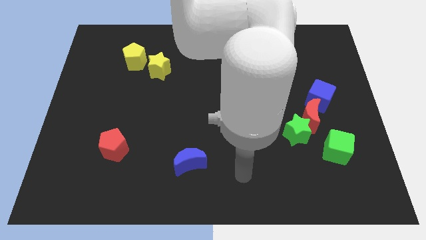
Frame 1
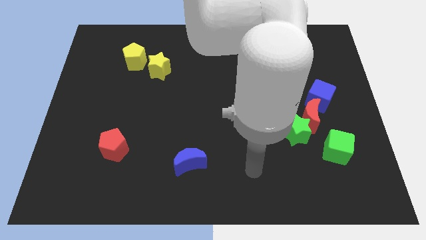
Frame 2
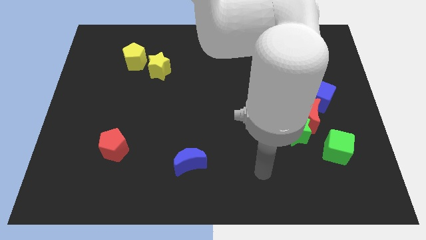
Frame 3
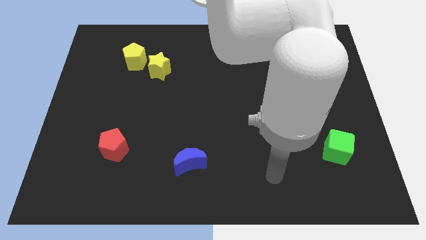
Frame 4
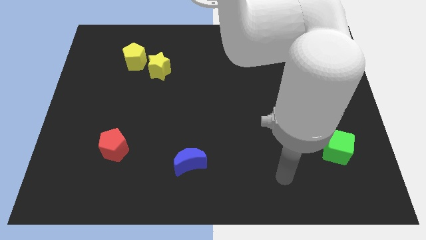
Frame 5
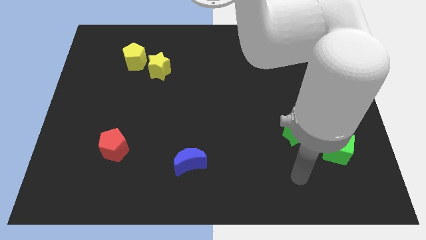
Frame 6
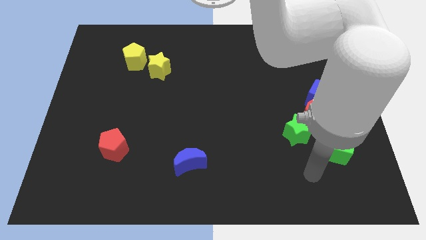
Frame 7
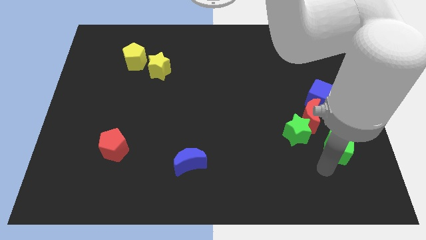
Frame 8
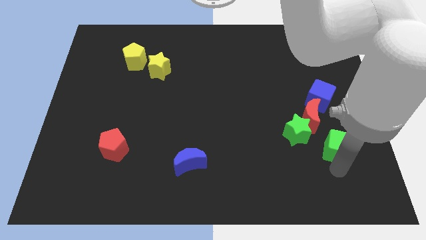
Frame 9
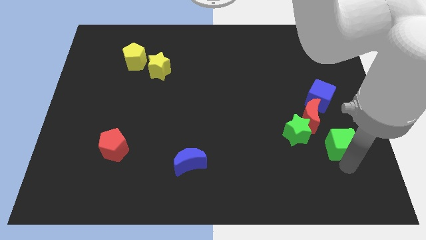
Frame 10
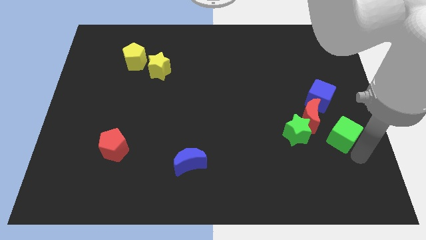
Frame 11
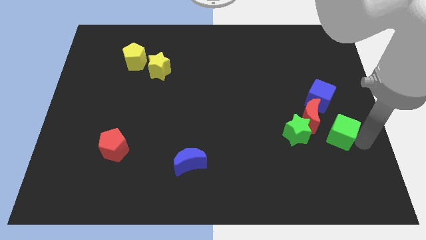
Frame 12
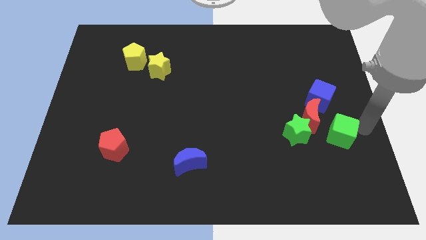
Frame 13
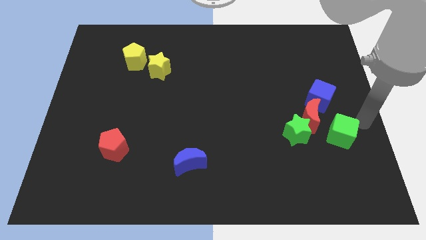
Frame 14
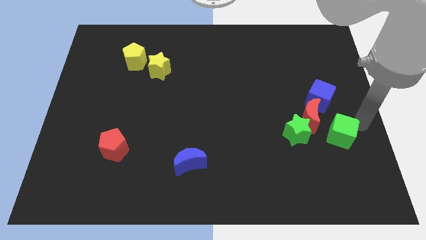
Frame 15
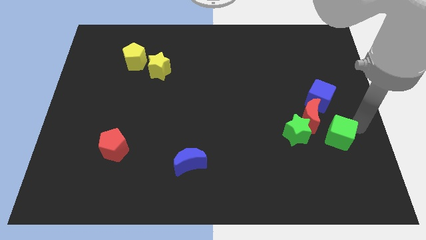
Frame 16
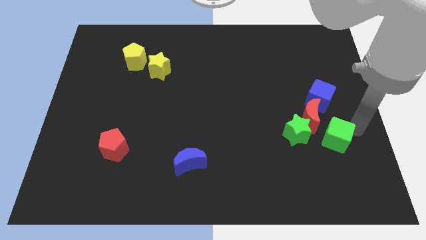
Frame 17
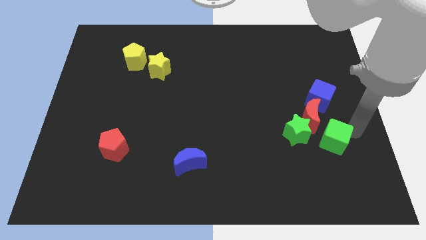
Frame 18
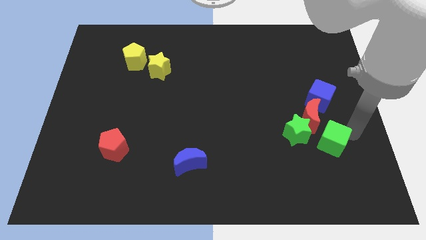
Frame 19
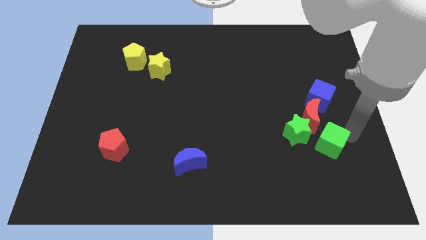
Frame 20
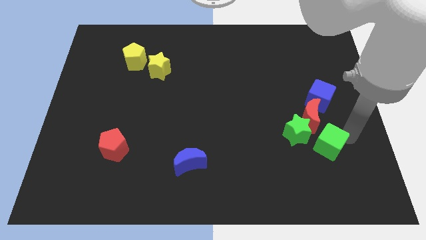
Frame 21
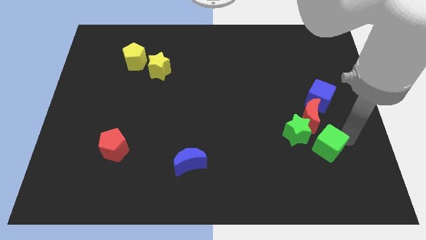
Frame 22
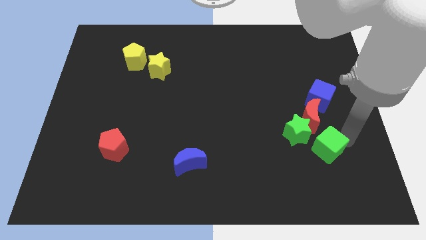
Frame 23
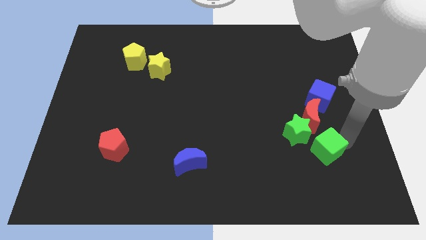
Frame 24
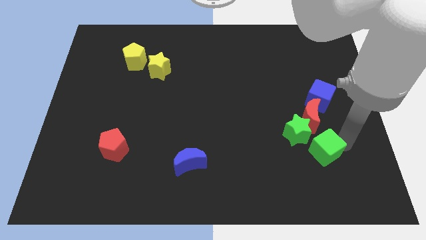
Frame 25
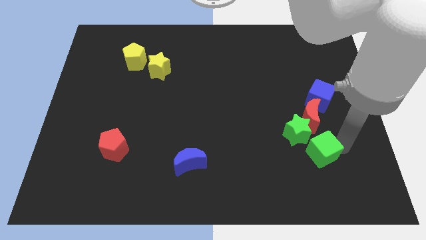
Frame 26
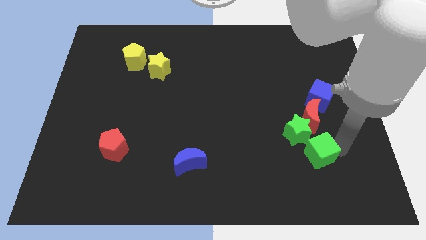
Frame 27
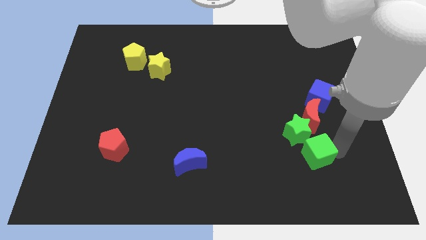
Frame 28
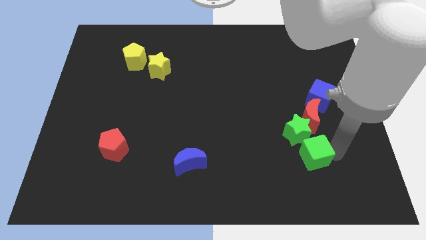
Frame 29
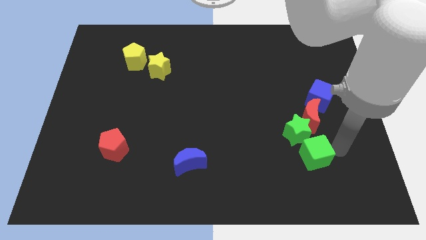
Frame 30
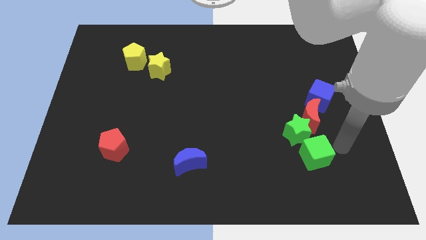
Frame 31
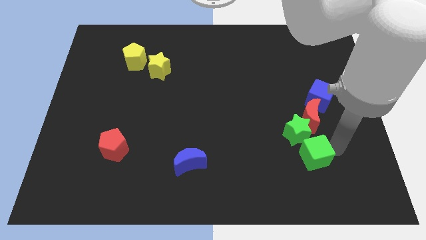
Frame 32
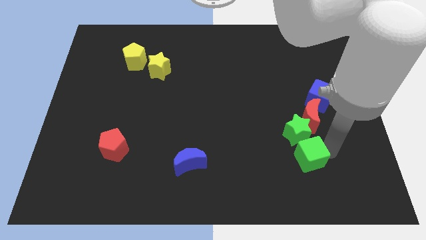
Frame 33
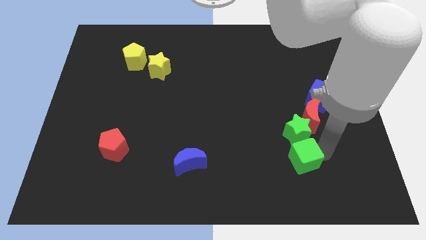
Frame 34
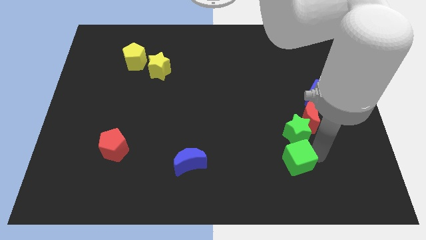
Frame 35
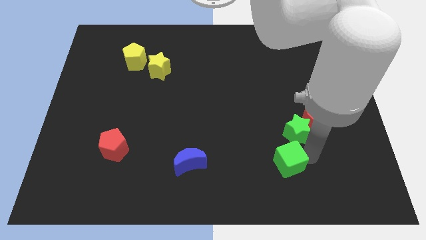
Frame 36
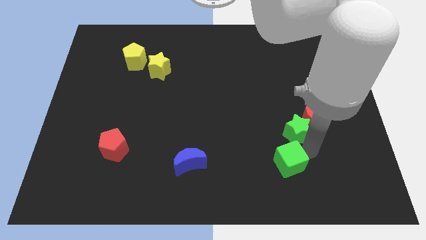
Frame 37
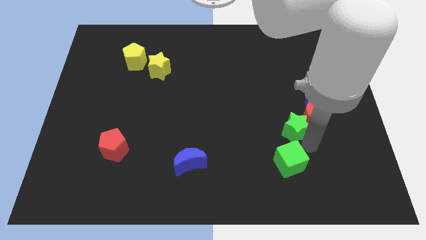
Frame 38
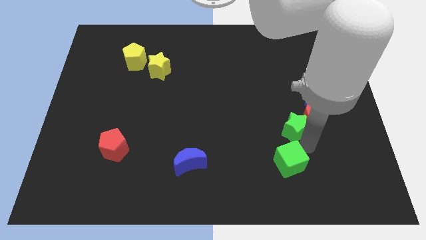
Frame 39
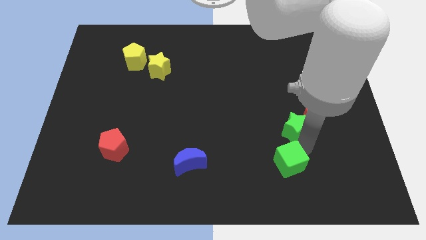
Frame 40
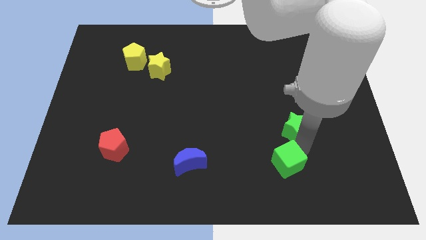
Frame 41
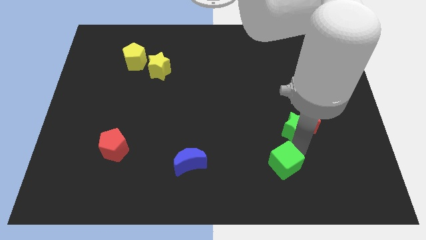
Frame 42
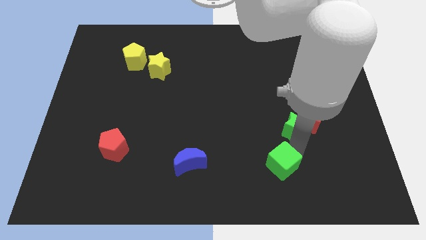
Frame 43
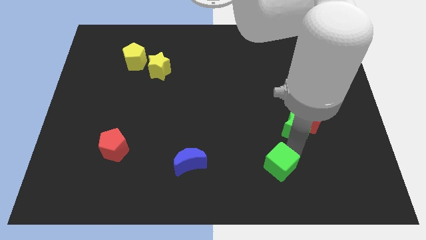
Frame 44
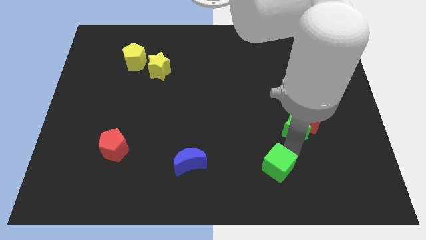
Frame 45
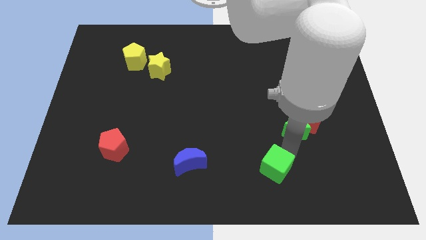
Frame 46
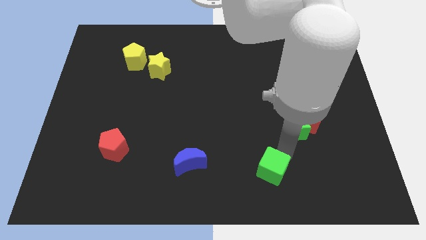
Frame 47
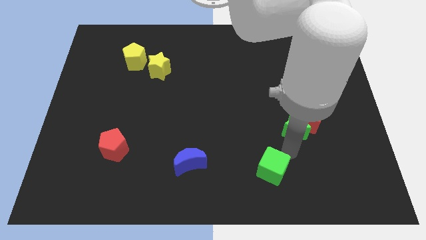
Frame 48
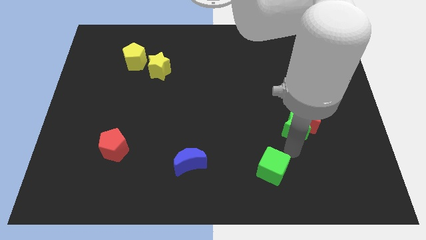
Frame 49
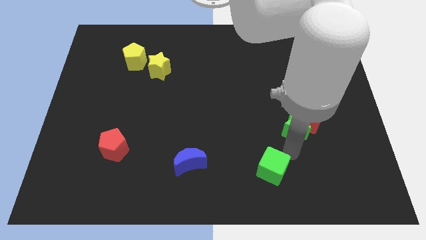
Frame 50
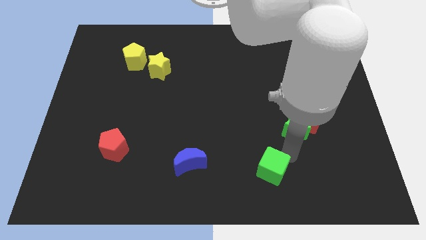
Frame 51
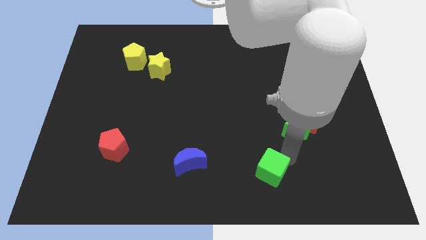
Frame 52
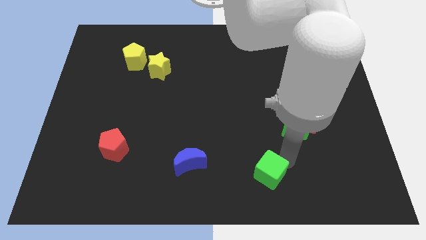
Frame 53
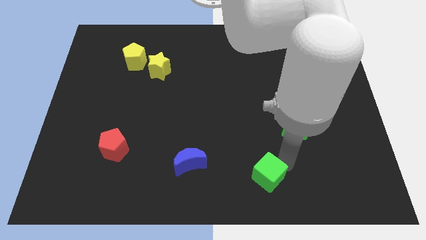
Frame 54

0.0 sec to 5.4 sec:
put the green cube to the bottom

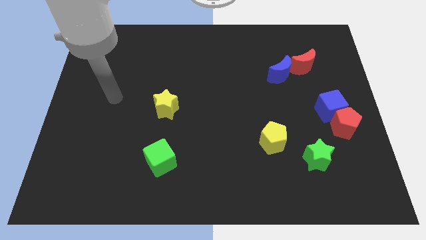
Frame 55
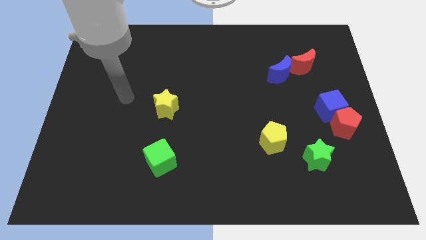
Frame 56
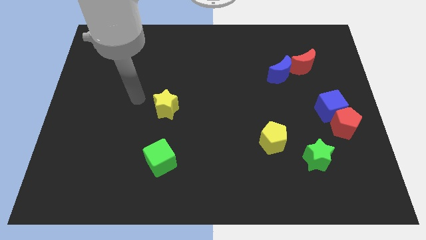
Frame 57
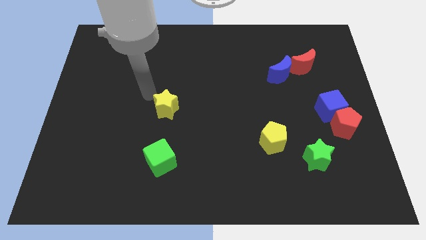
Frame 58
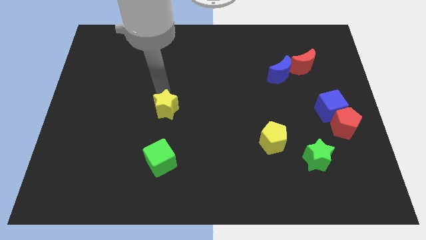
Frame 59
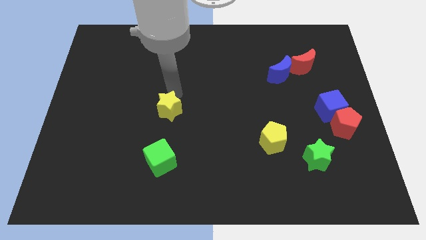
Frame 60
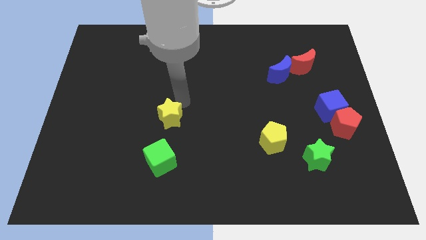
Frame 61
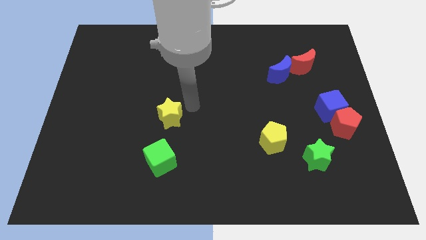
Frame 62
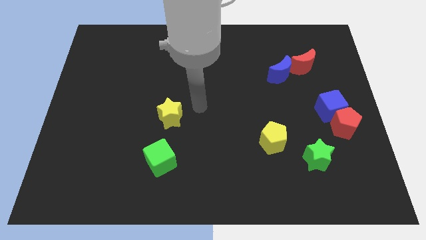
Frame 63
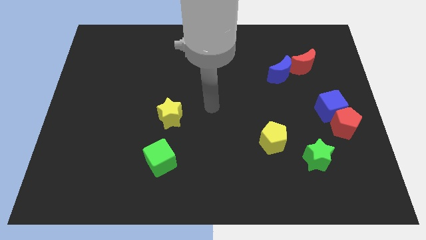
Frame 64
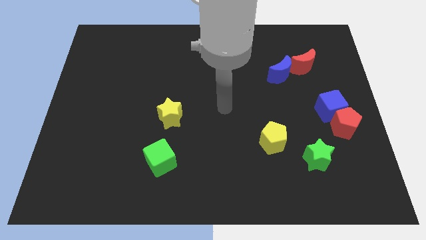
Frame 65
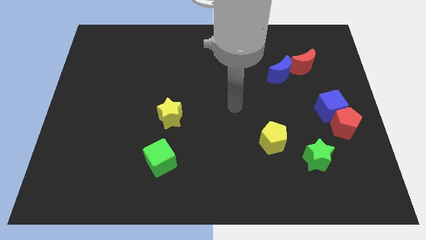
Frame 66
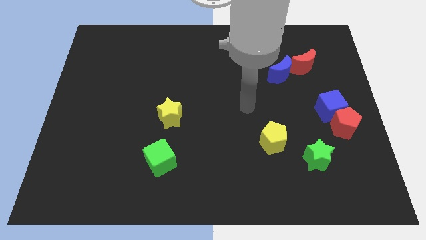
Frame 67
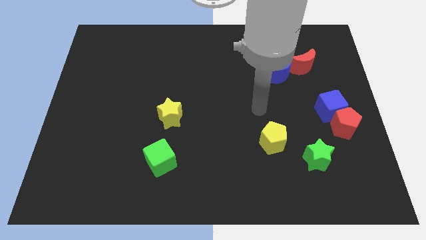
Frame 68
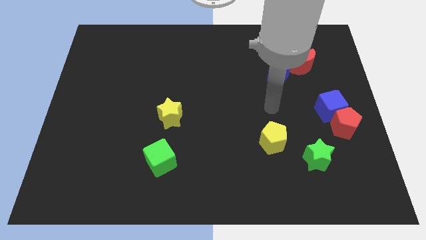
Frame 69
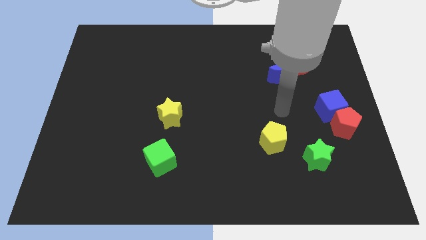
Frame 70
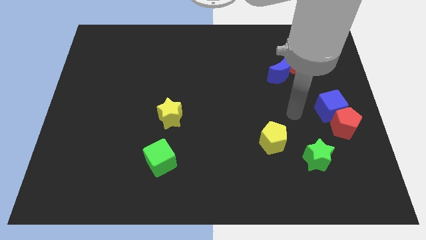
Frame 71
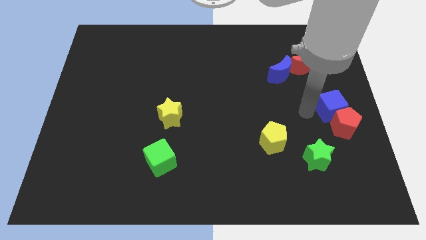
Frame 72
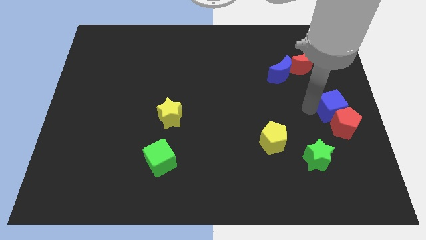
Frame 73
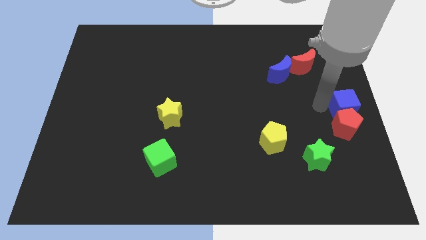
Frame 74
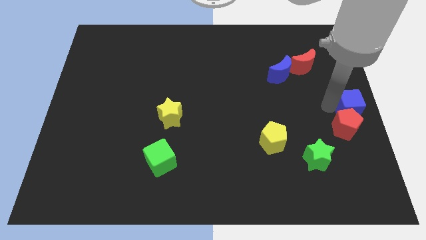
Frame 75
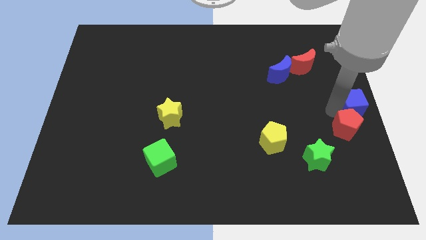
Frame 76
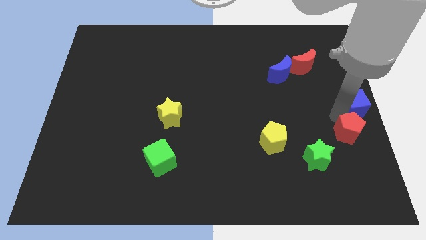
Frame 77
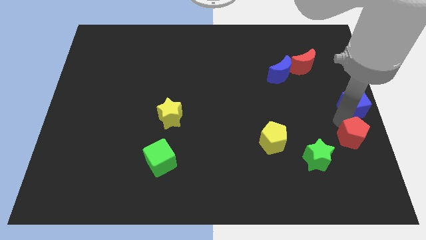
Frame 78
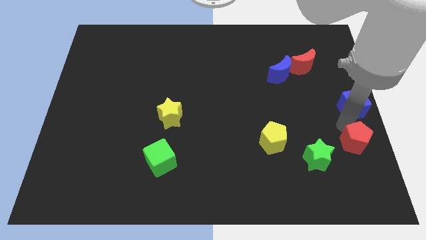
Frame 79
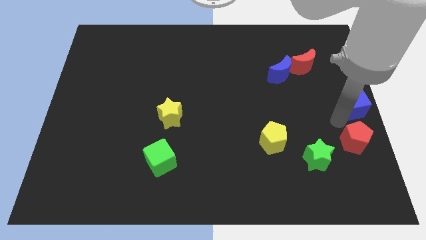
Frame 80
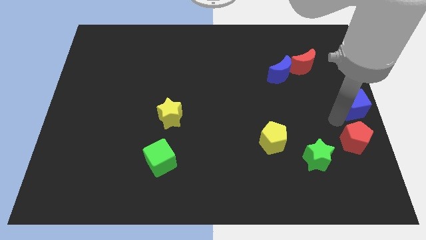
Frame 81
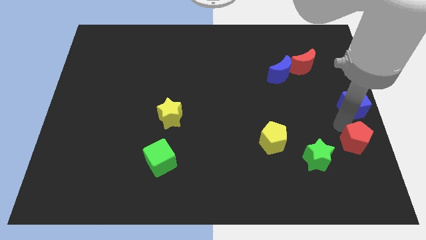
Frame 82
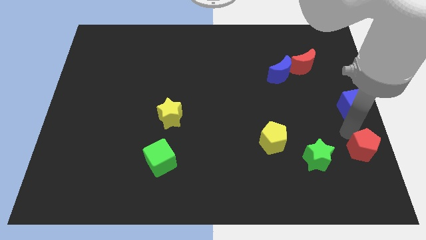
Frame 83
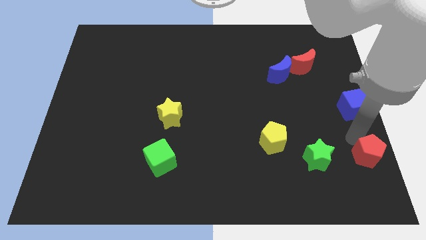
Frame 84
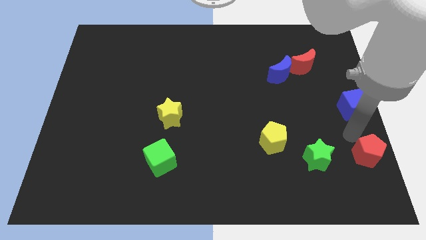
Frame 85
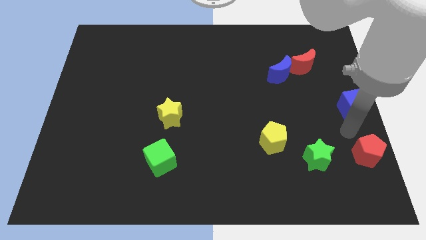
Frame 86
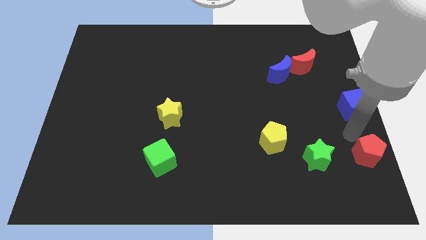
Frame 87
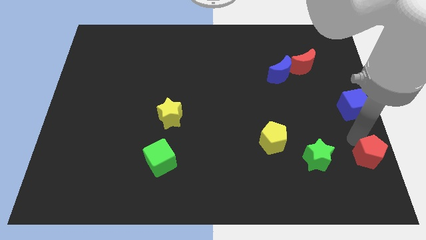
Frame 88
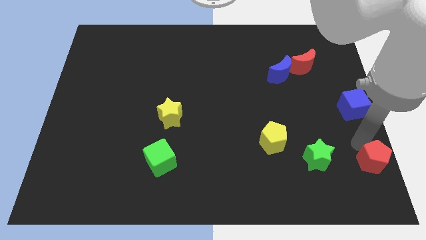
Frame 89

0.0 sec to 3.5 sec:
put the red pentagon to the bottom right corner
